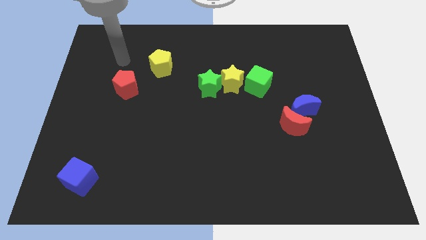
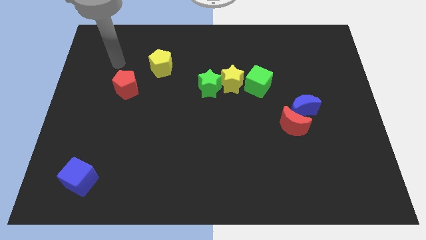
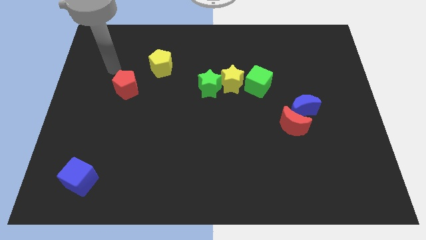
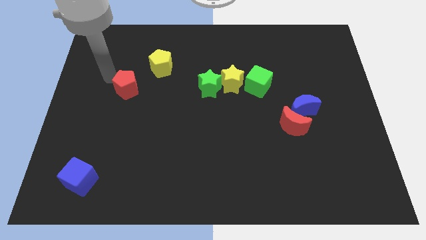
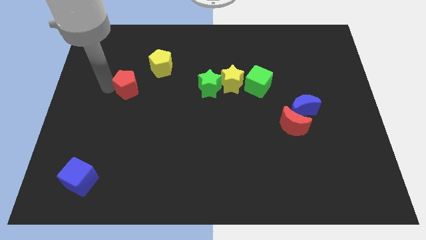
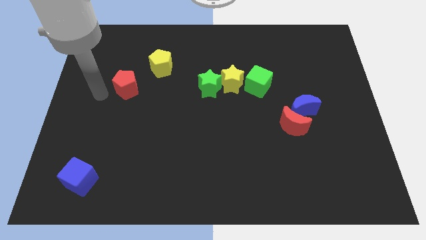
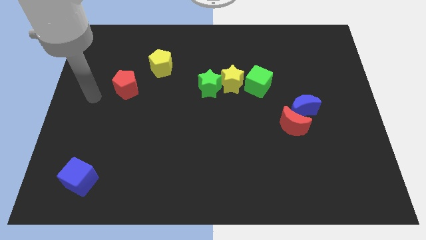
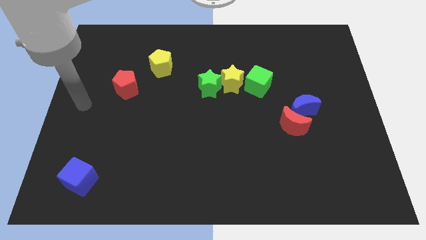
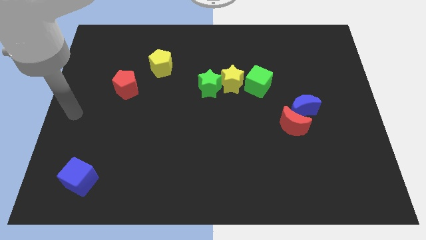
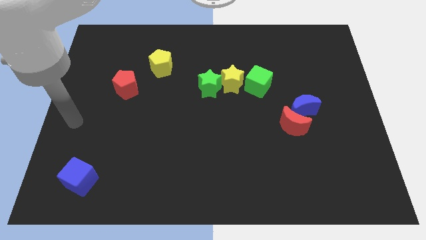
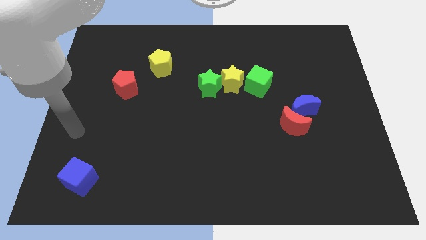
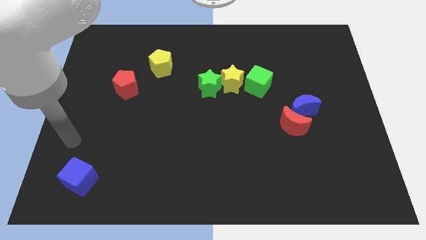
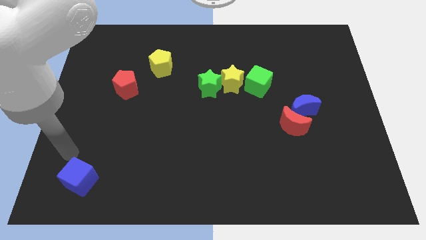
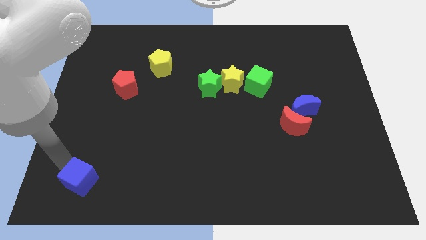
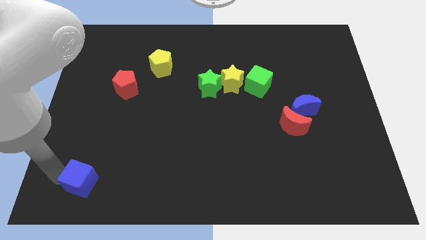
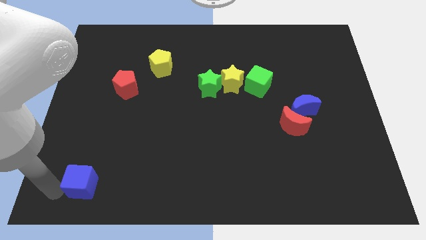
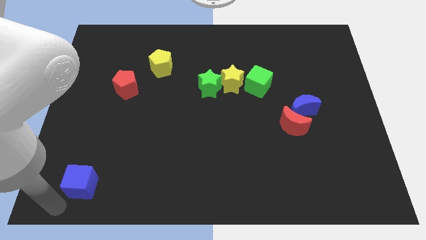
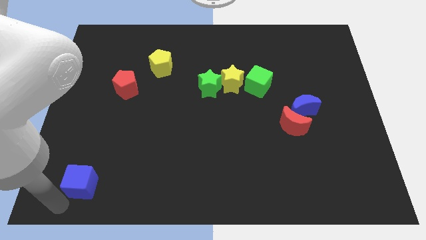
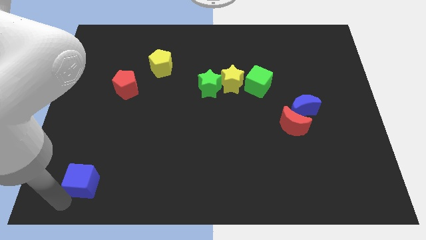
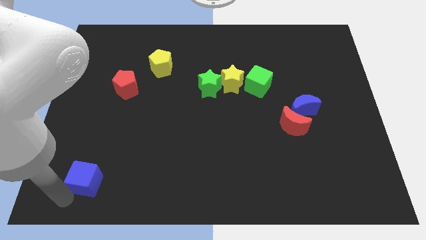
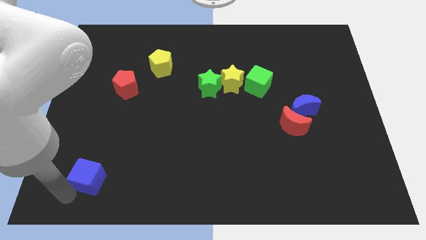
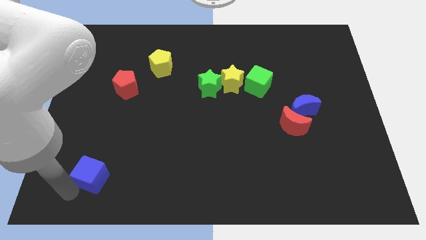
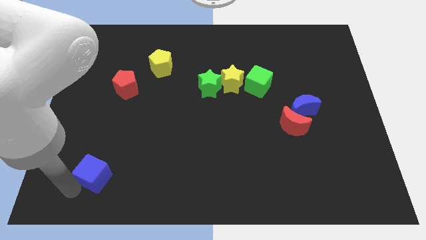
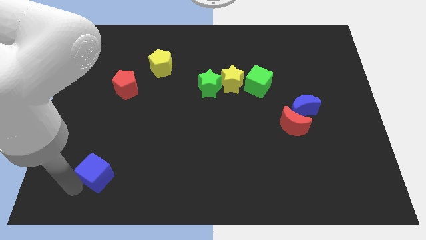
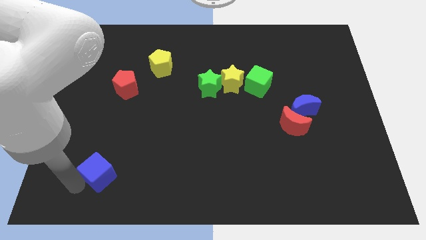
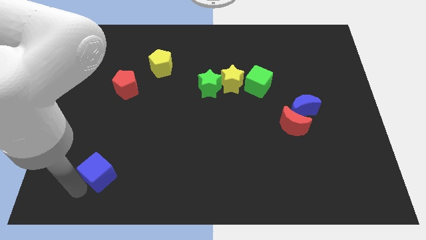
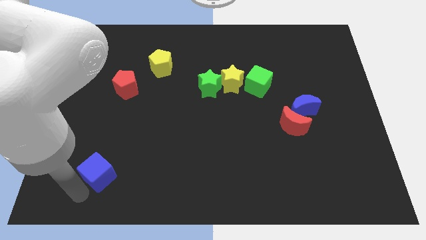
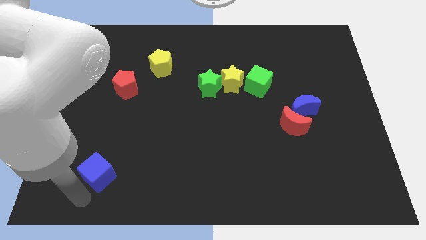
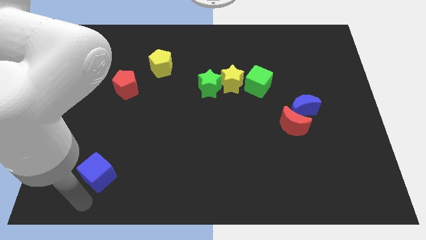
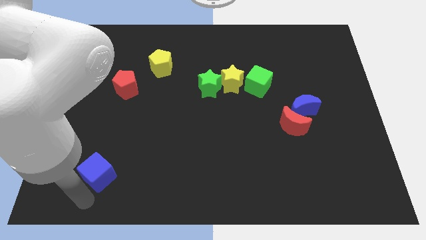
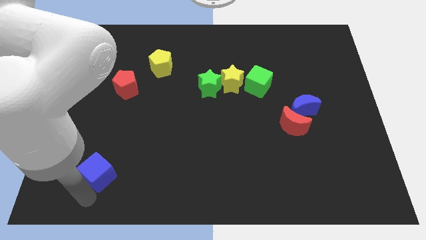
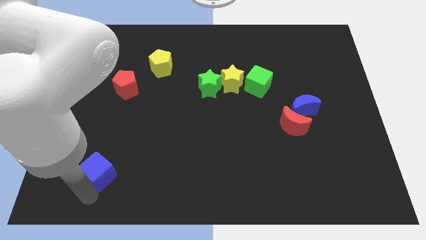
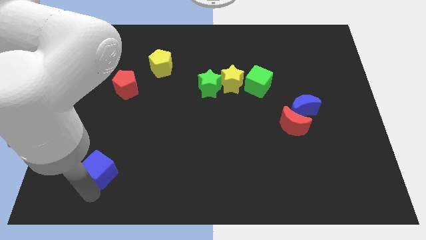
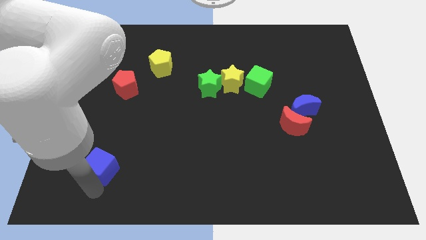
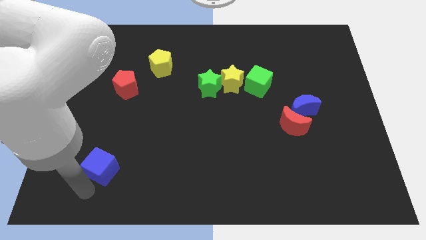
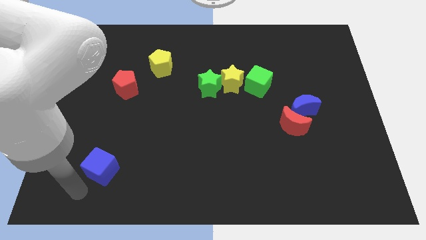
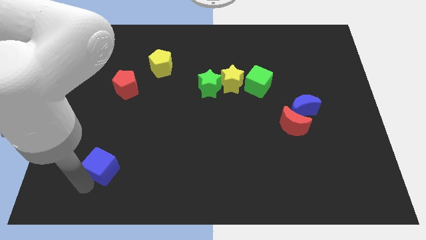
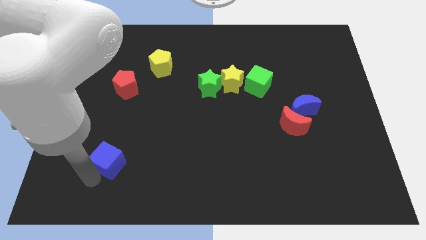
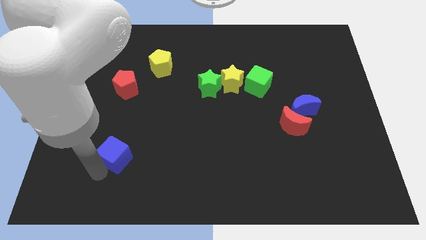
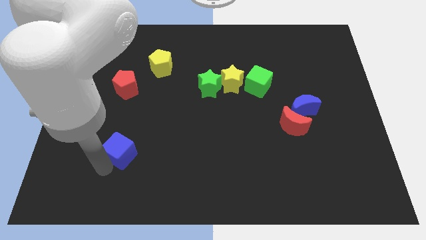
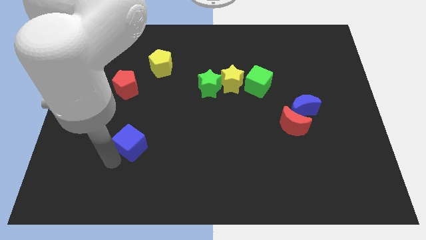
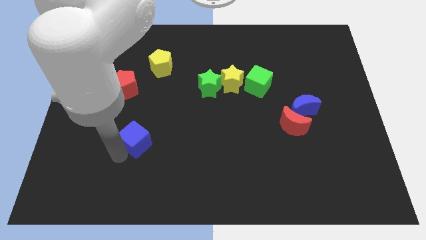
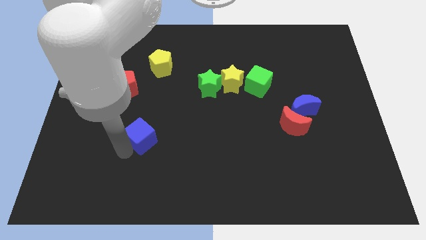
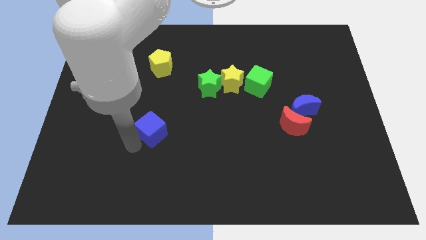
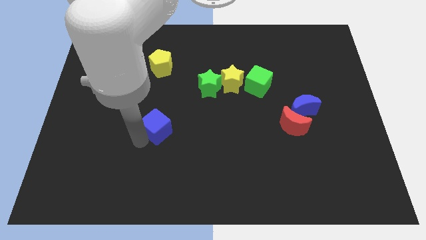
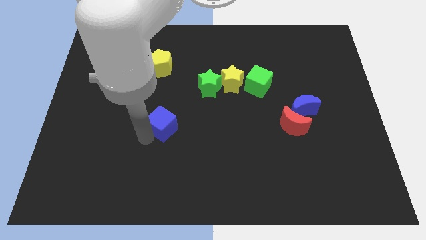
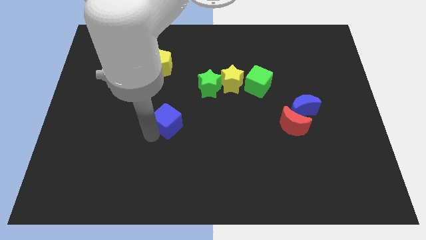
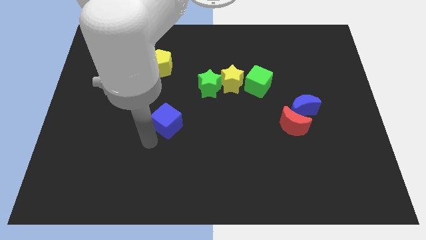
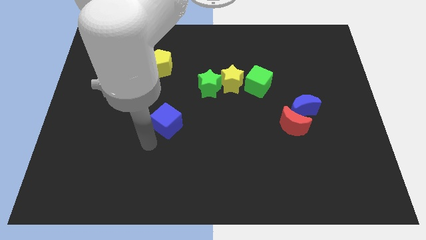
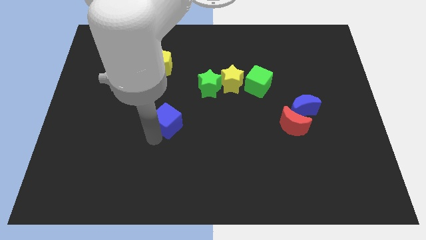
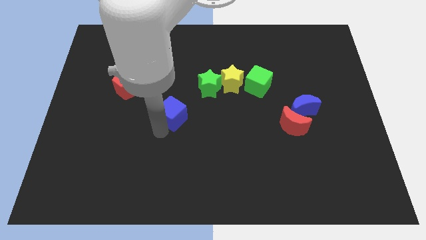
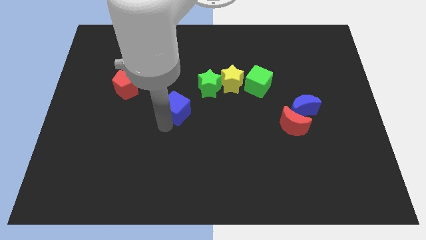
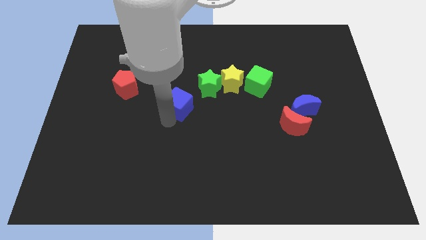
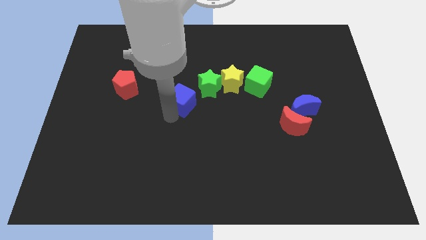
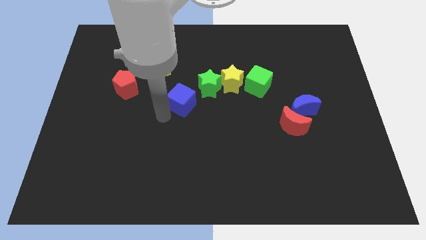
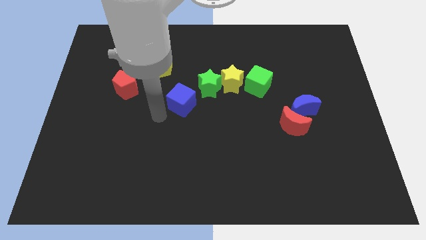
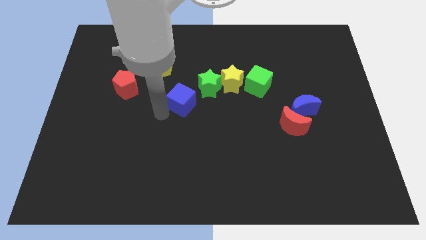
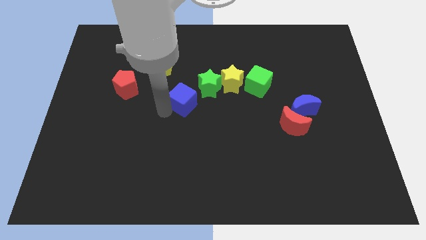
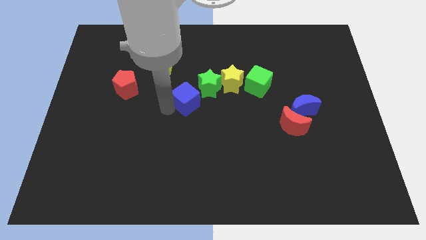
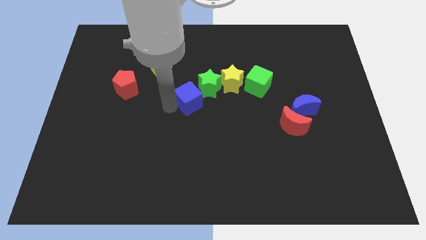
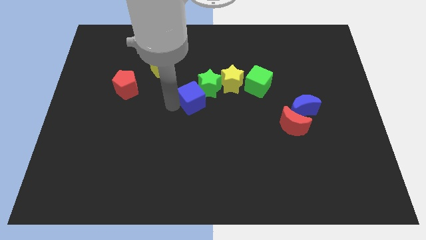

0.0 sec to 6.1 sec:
put the blue cube towards the green star

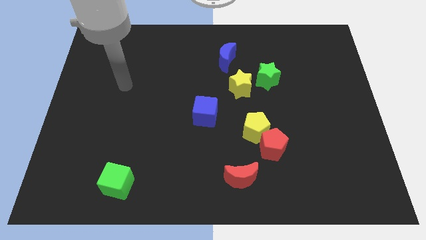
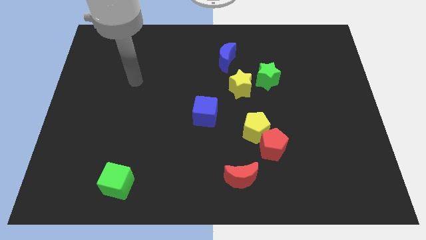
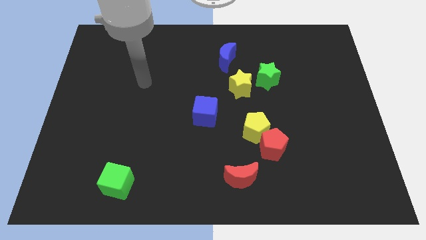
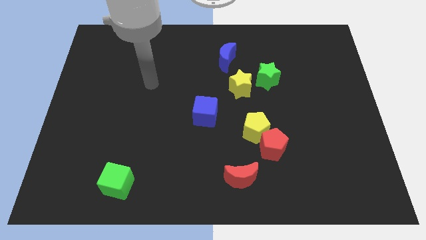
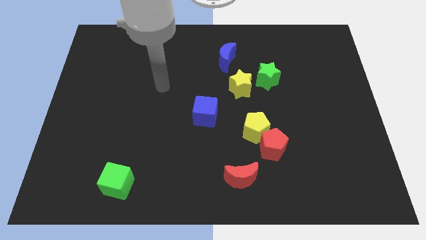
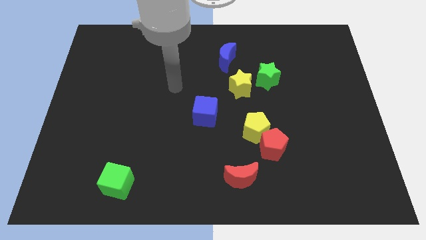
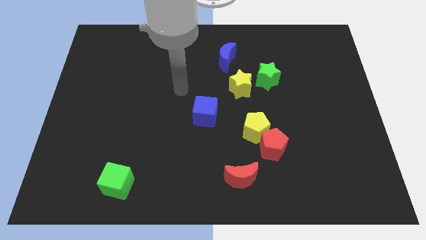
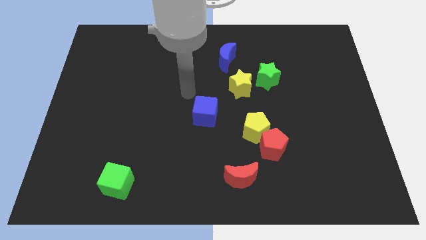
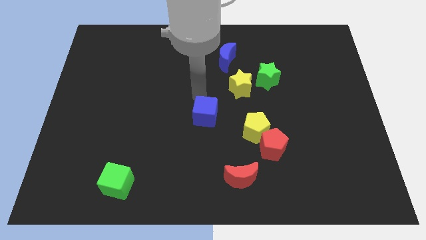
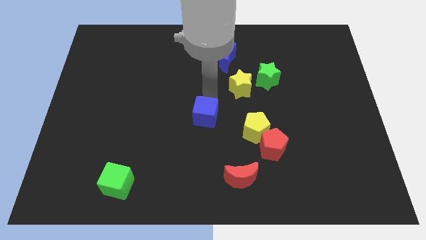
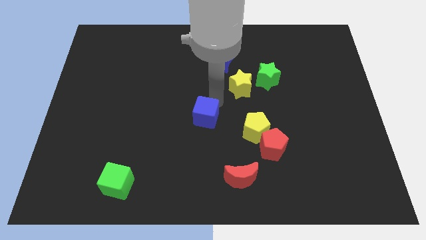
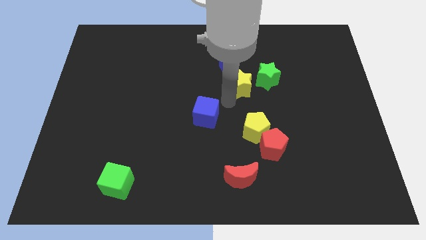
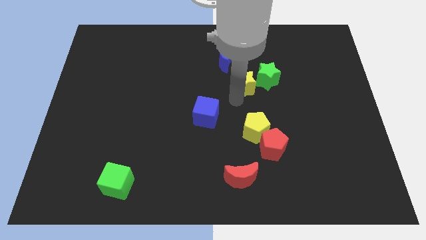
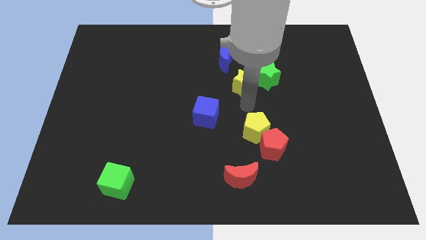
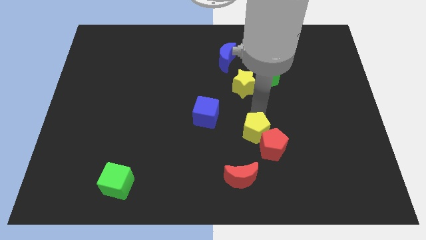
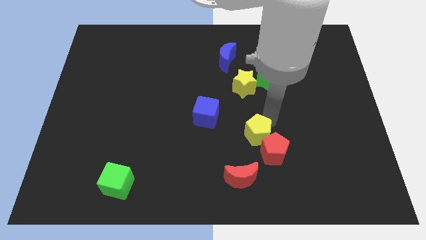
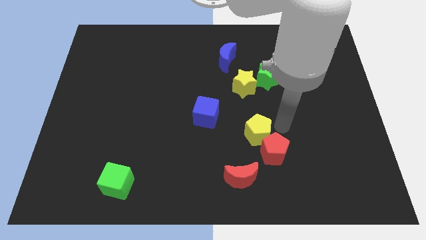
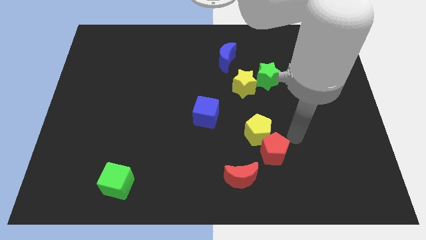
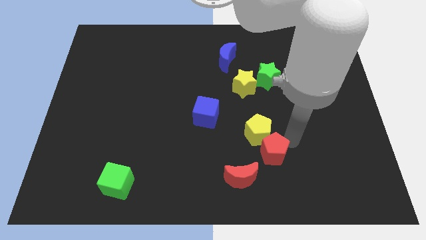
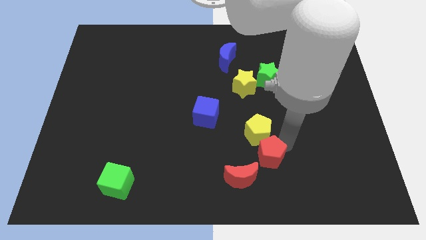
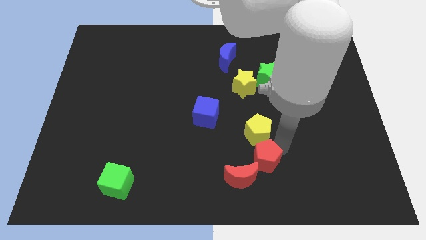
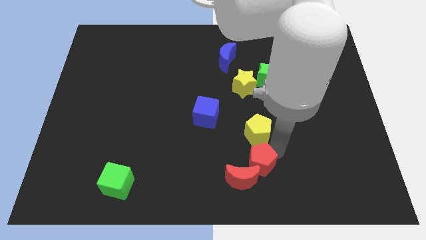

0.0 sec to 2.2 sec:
slide the red pentagon next to the red moon
